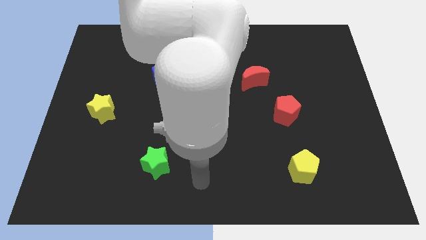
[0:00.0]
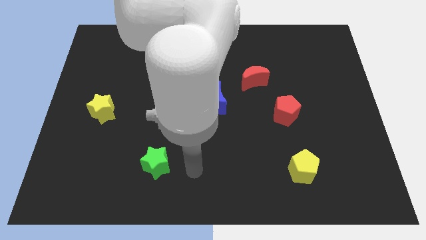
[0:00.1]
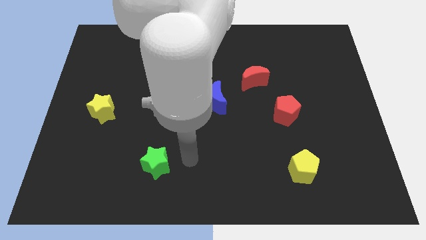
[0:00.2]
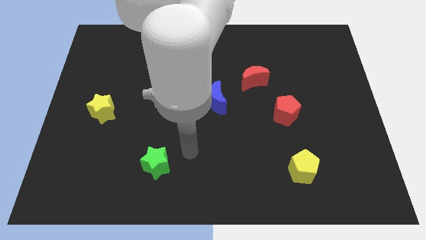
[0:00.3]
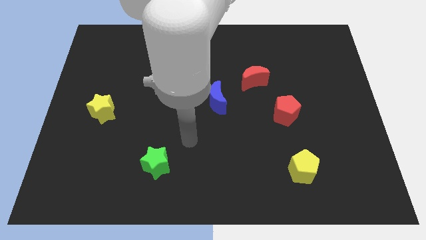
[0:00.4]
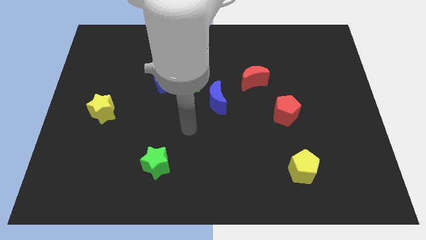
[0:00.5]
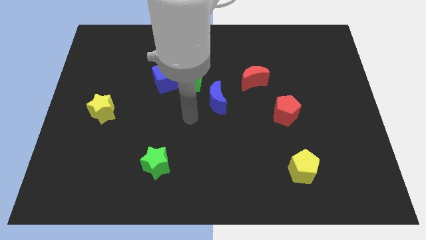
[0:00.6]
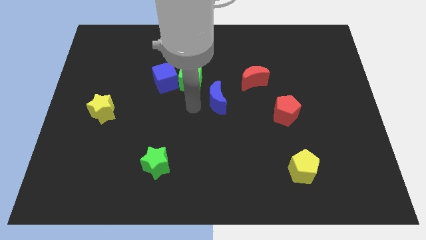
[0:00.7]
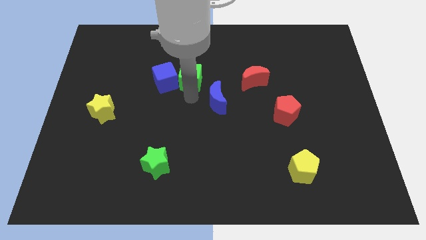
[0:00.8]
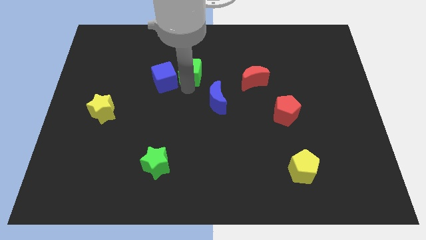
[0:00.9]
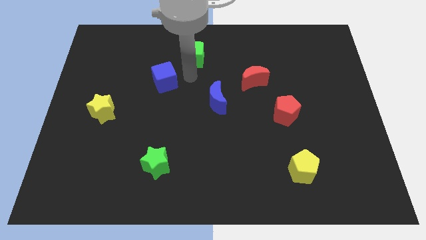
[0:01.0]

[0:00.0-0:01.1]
separate the blue cube from the green cube

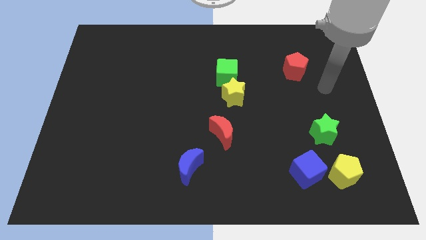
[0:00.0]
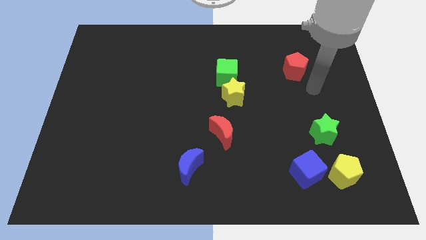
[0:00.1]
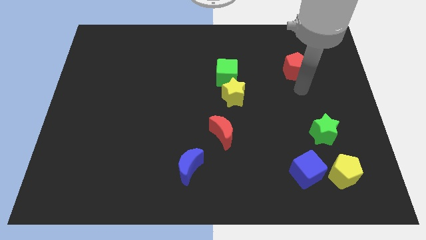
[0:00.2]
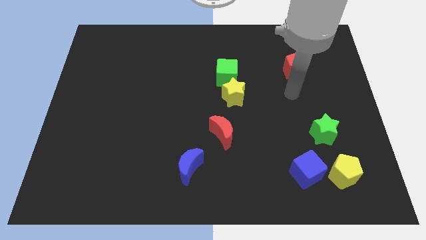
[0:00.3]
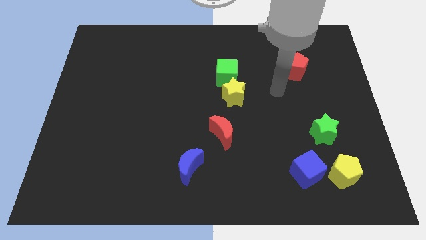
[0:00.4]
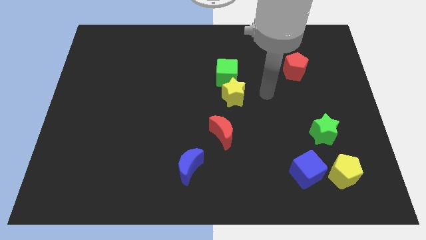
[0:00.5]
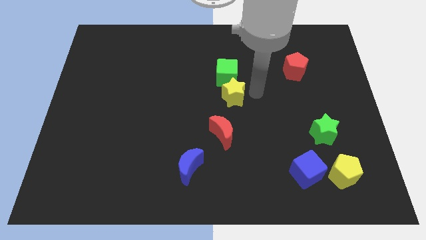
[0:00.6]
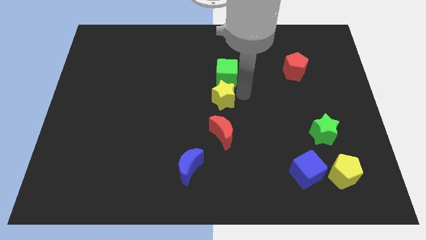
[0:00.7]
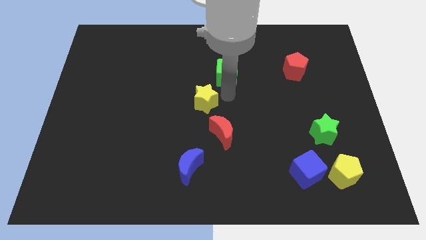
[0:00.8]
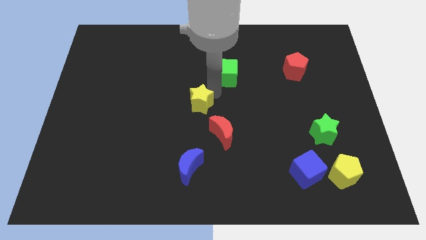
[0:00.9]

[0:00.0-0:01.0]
move the green cube away from the yellow star

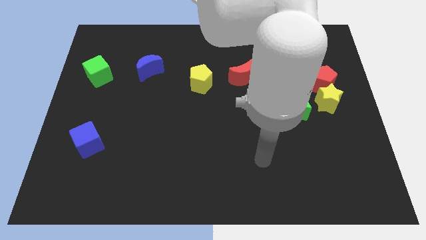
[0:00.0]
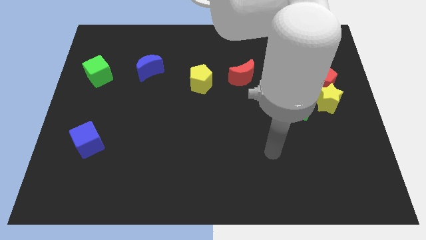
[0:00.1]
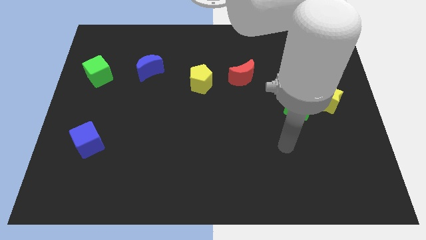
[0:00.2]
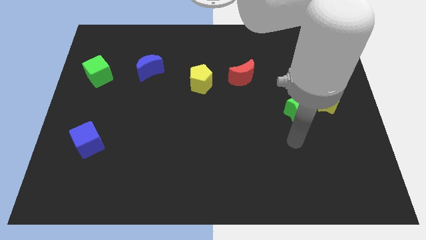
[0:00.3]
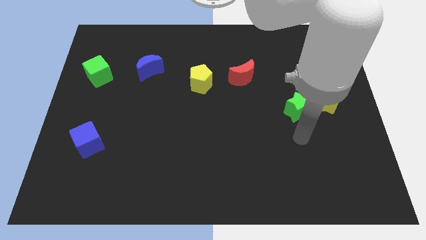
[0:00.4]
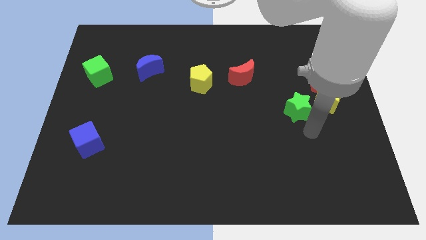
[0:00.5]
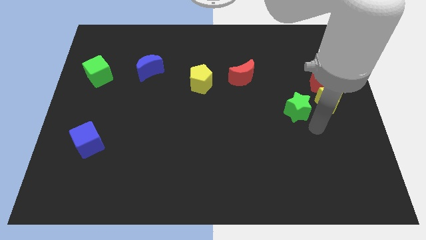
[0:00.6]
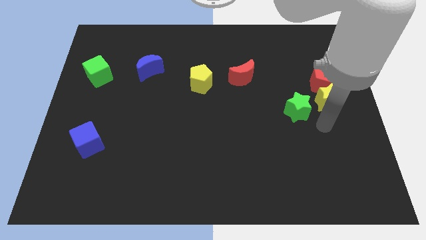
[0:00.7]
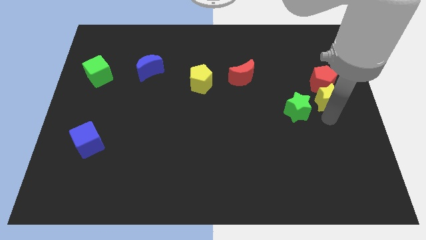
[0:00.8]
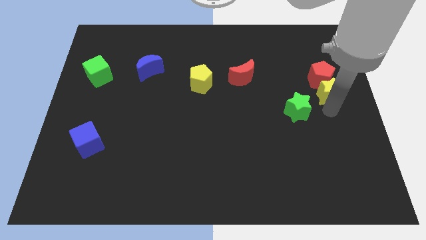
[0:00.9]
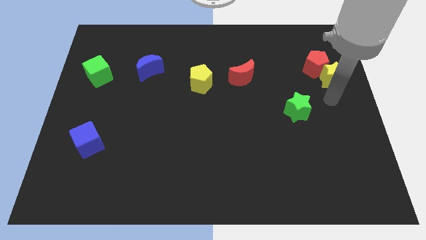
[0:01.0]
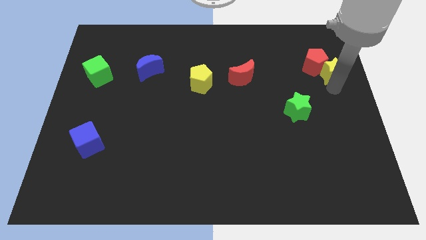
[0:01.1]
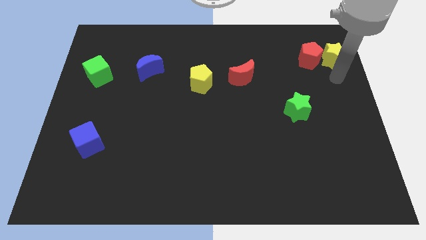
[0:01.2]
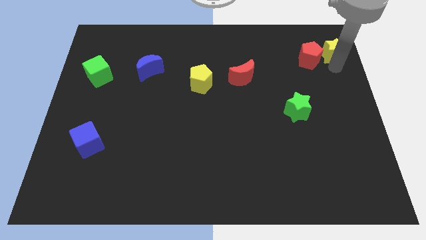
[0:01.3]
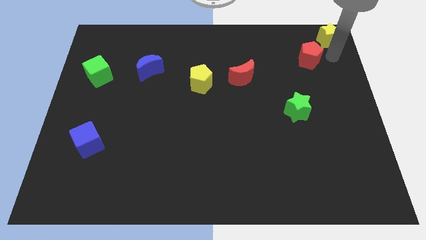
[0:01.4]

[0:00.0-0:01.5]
move the red pentagon away from the yellow star

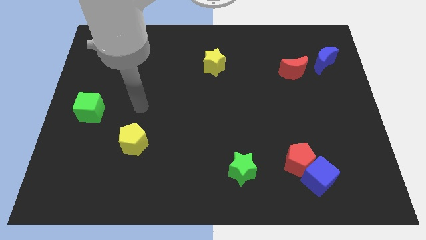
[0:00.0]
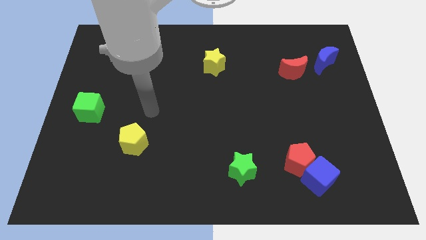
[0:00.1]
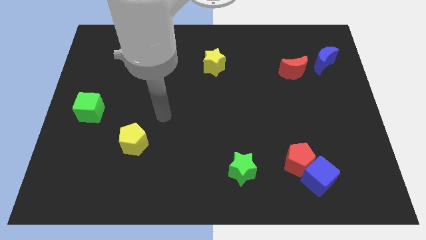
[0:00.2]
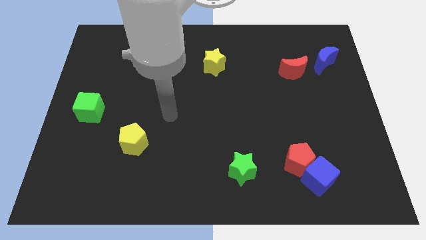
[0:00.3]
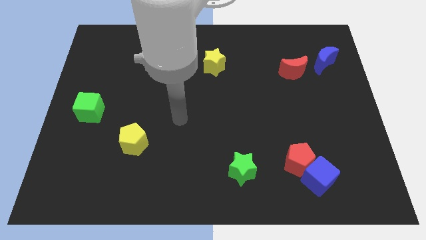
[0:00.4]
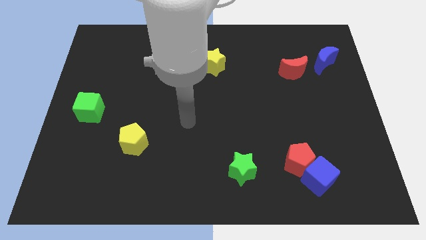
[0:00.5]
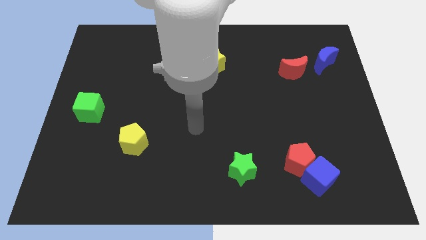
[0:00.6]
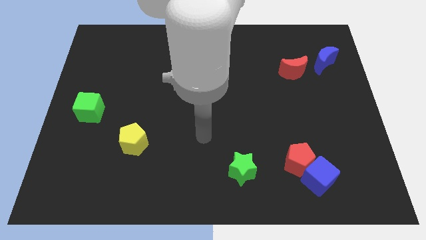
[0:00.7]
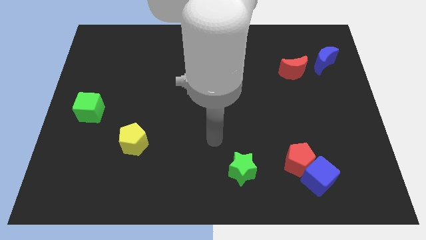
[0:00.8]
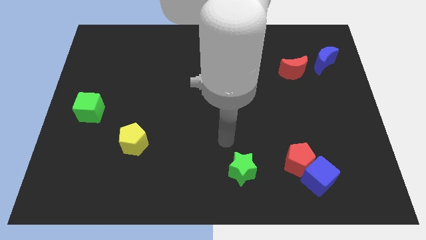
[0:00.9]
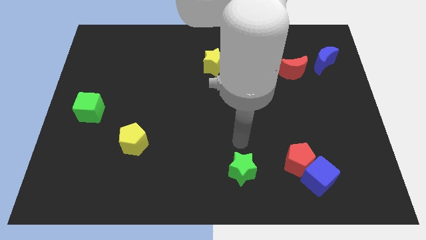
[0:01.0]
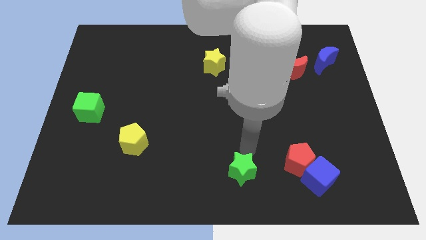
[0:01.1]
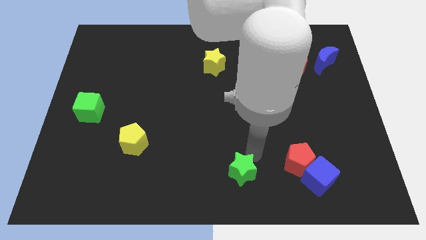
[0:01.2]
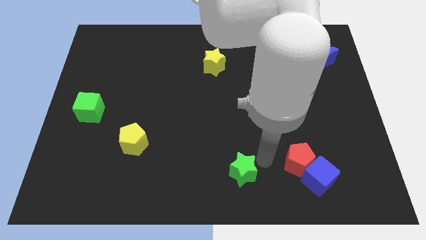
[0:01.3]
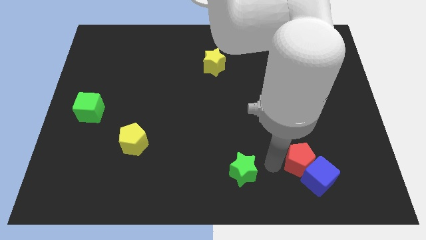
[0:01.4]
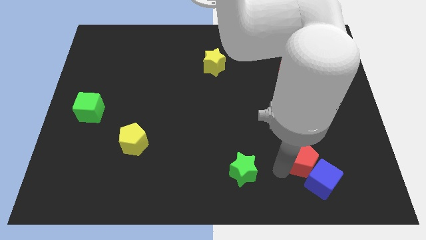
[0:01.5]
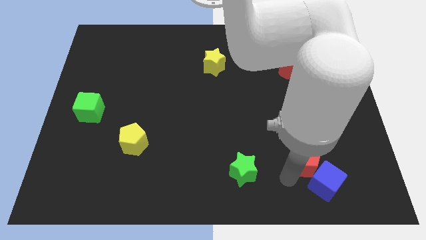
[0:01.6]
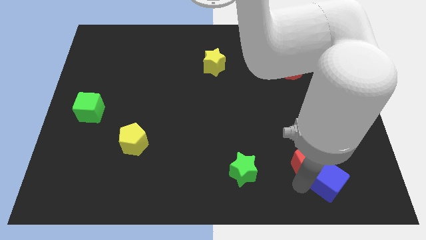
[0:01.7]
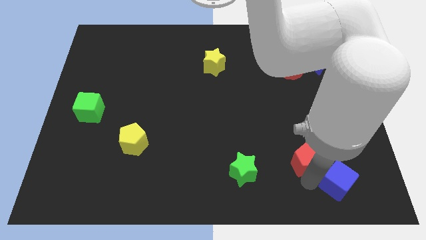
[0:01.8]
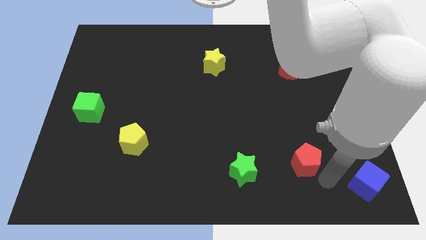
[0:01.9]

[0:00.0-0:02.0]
separate the red pentagon from the blue cube

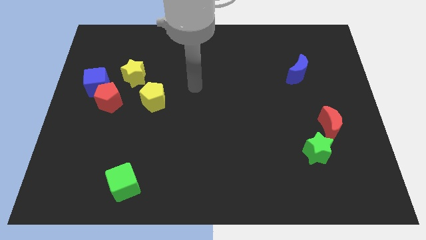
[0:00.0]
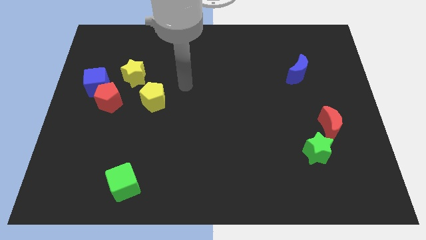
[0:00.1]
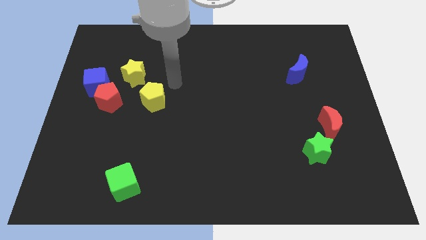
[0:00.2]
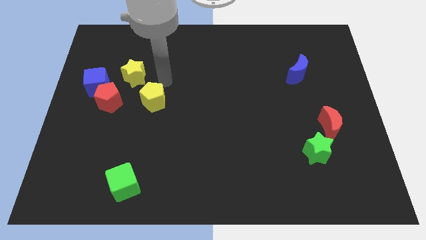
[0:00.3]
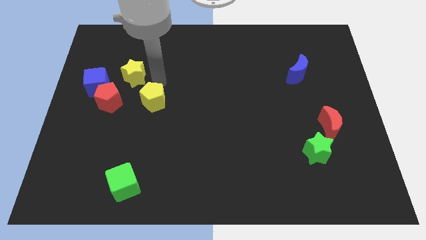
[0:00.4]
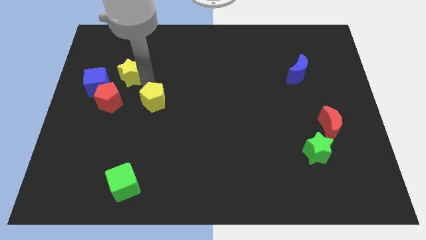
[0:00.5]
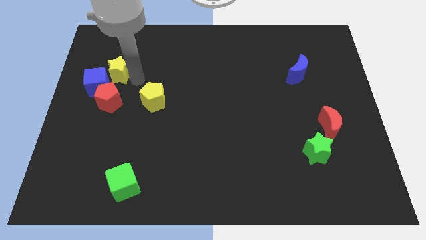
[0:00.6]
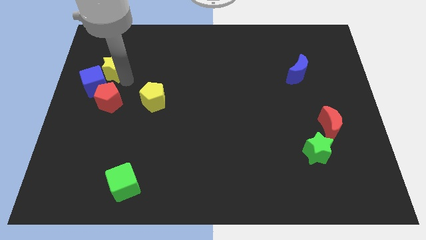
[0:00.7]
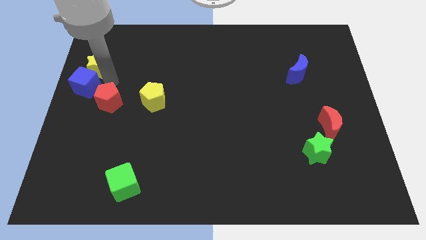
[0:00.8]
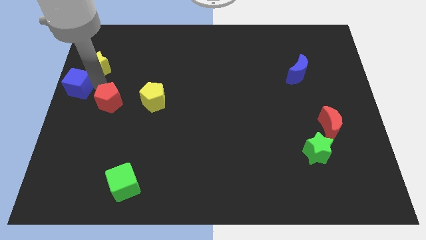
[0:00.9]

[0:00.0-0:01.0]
separate the red pentagon from the blue cube and yellow star

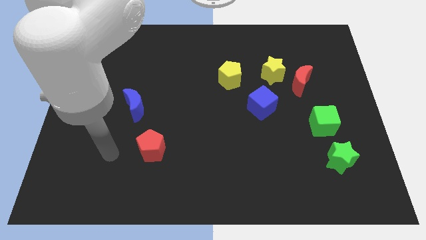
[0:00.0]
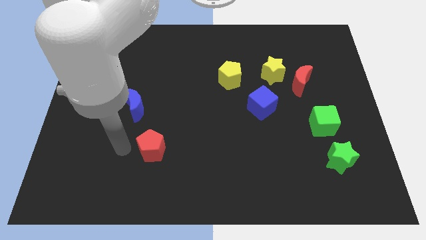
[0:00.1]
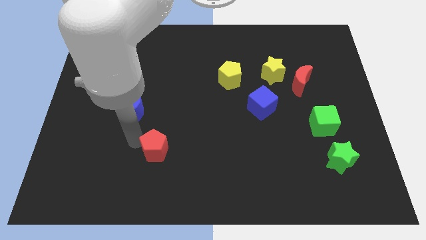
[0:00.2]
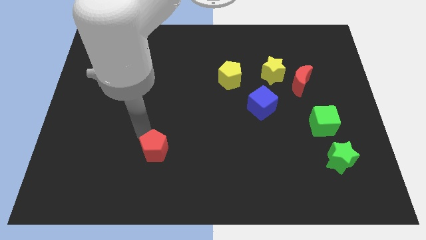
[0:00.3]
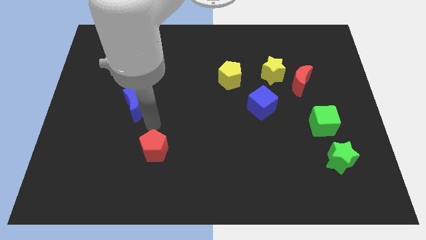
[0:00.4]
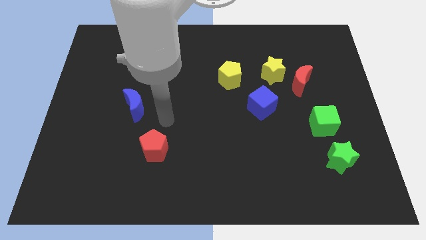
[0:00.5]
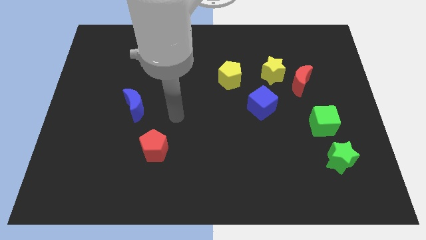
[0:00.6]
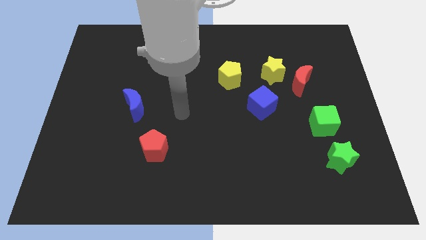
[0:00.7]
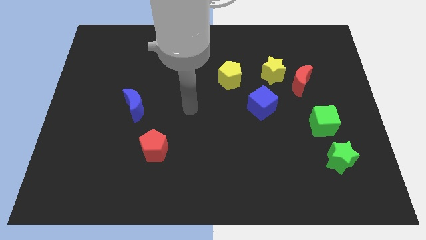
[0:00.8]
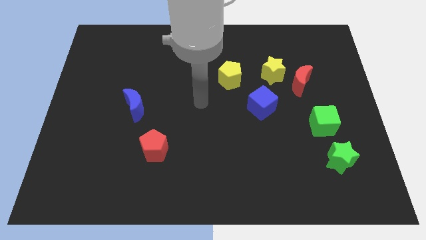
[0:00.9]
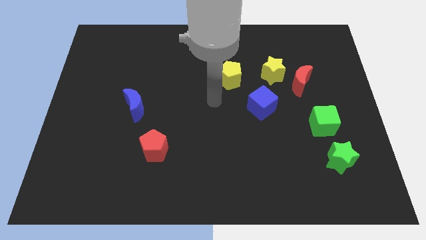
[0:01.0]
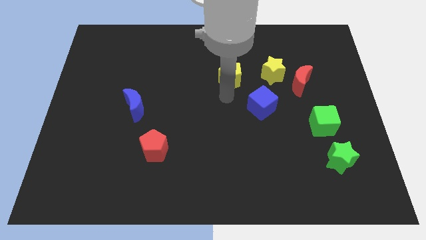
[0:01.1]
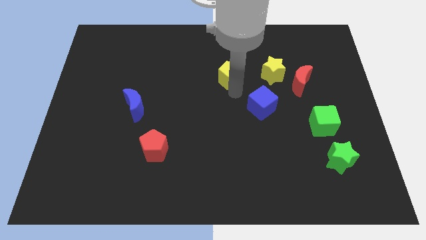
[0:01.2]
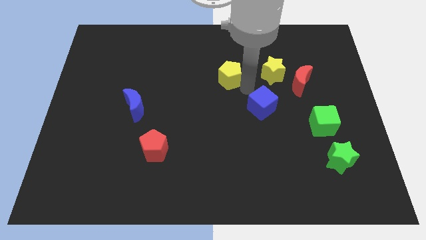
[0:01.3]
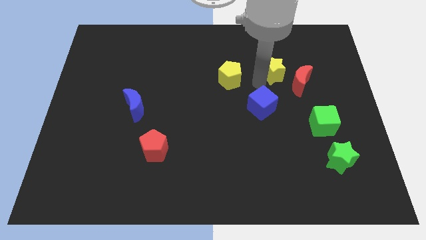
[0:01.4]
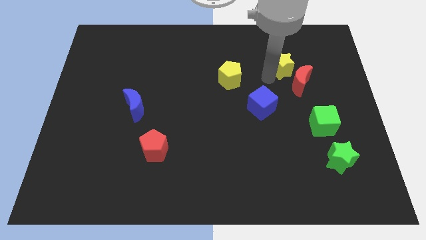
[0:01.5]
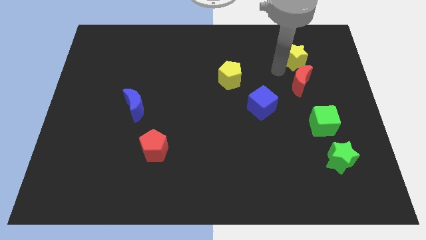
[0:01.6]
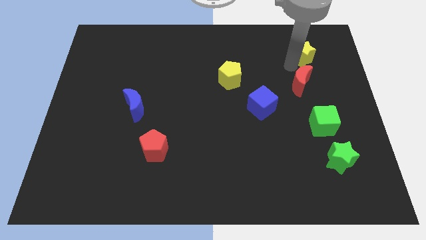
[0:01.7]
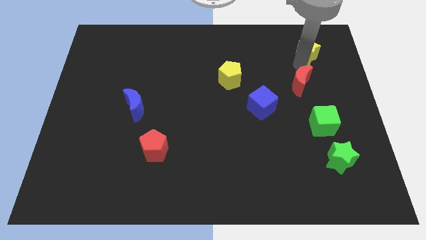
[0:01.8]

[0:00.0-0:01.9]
separate the red moon from the yellow star

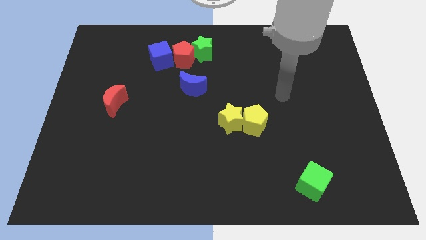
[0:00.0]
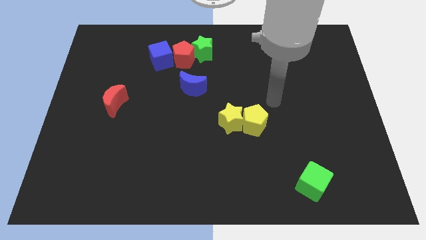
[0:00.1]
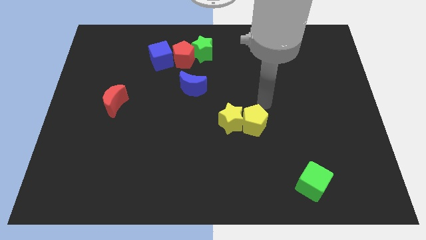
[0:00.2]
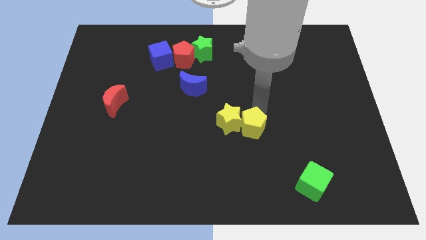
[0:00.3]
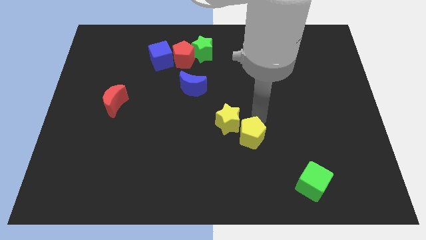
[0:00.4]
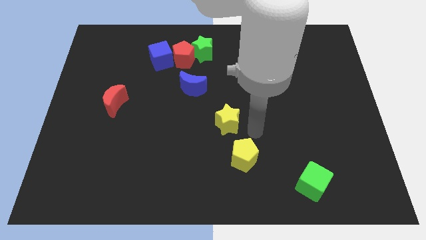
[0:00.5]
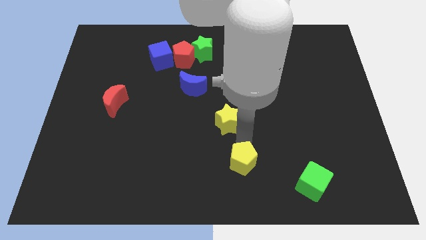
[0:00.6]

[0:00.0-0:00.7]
separate the yellow star from the yellow pentagon
